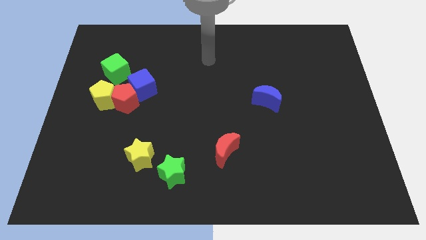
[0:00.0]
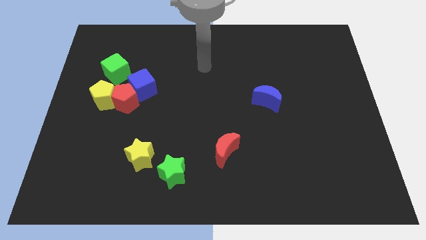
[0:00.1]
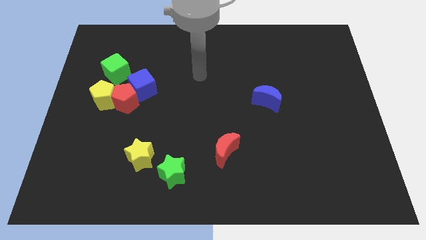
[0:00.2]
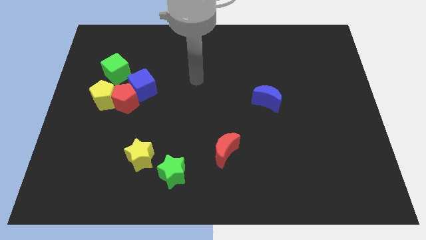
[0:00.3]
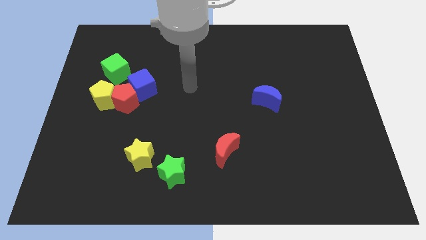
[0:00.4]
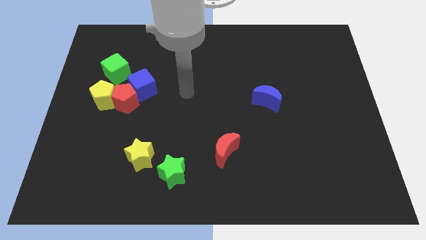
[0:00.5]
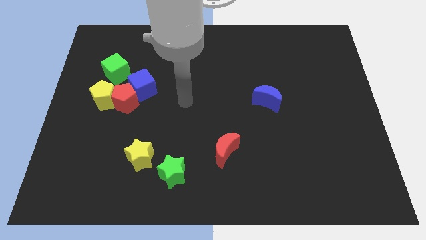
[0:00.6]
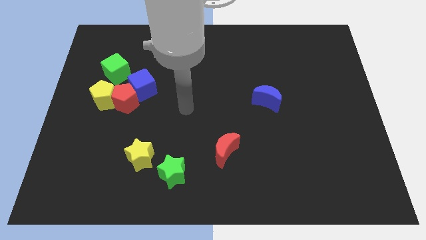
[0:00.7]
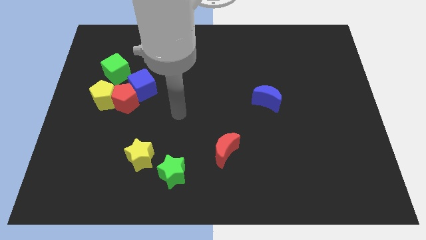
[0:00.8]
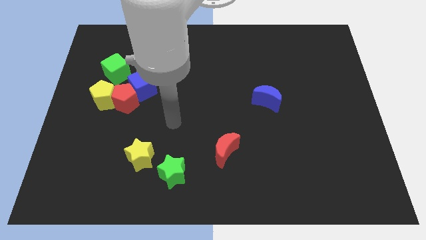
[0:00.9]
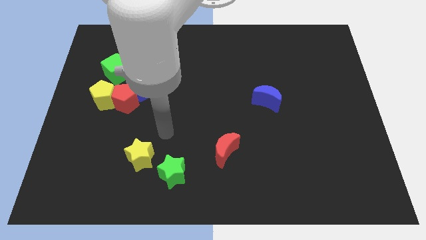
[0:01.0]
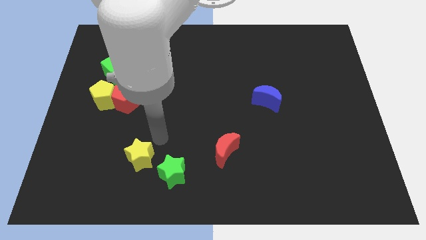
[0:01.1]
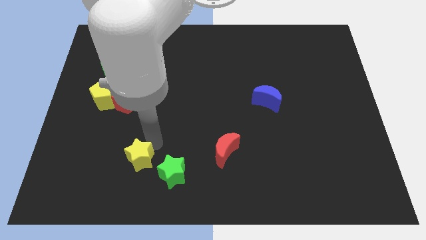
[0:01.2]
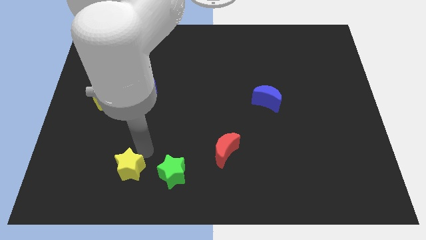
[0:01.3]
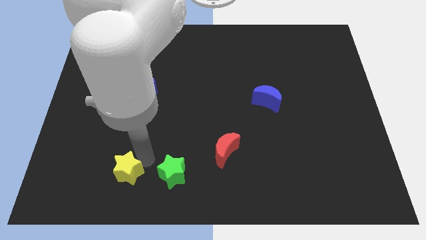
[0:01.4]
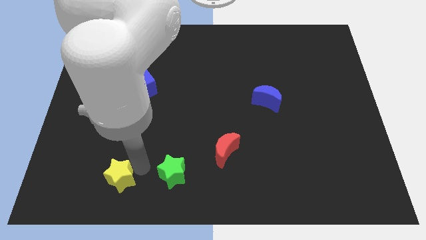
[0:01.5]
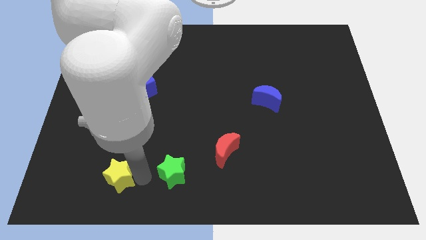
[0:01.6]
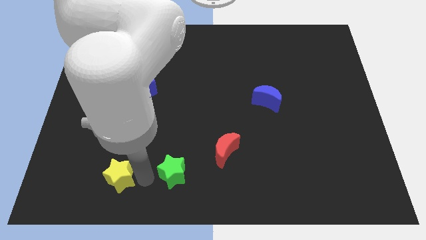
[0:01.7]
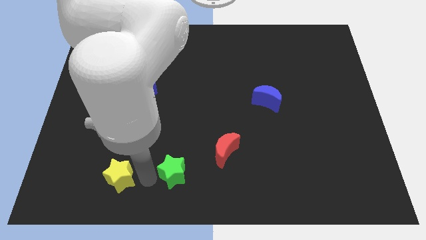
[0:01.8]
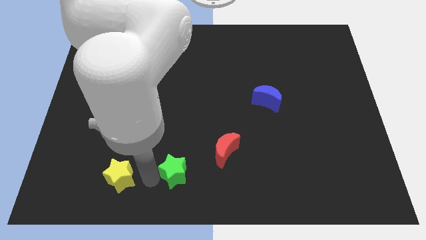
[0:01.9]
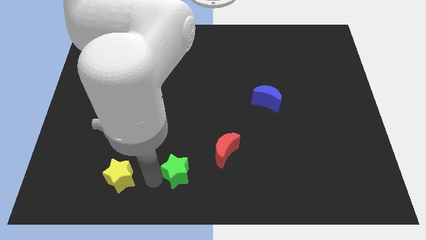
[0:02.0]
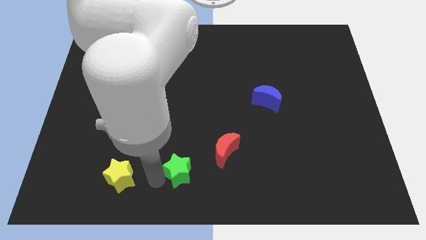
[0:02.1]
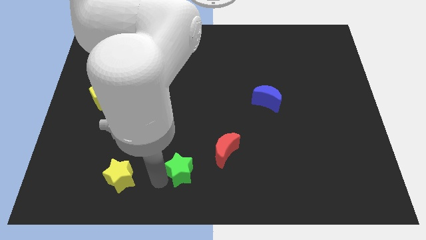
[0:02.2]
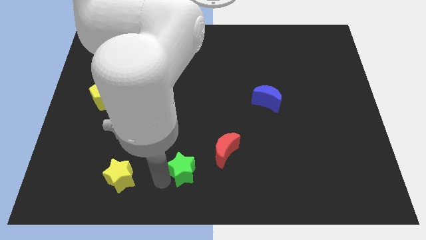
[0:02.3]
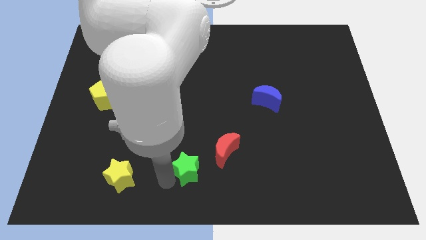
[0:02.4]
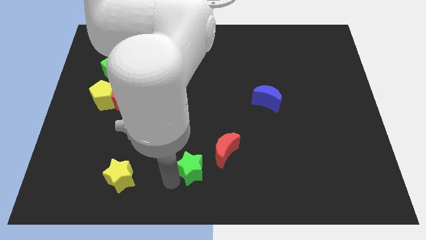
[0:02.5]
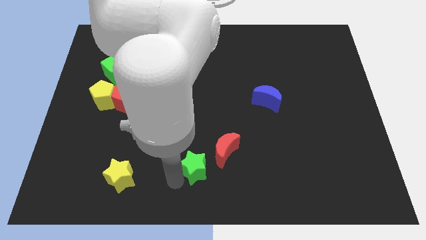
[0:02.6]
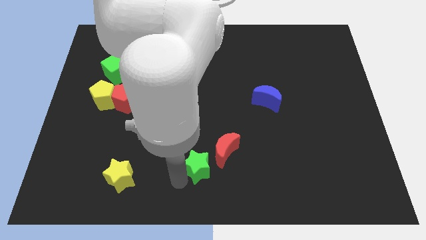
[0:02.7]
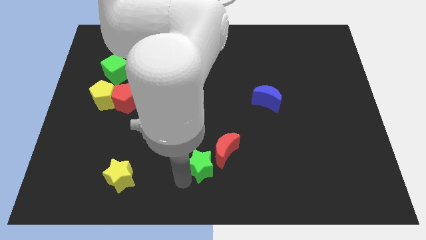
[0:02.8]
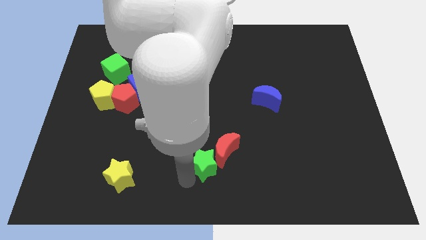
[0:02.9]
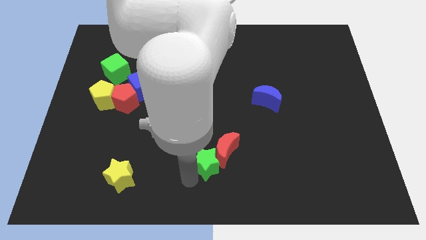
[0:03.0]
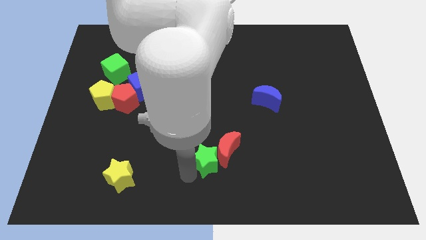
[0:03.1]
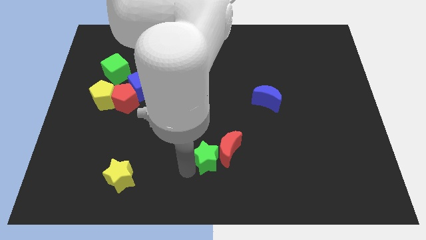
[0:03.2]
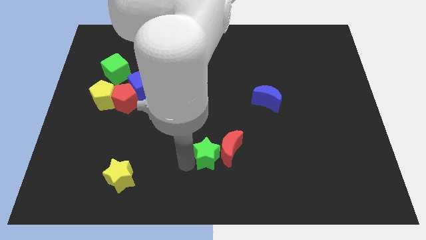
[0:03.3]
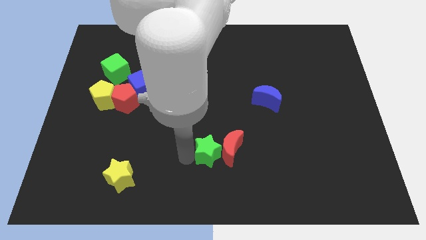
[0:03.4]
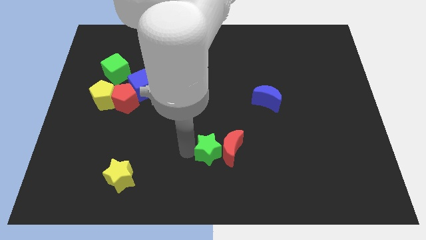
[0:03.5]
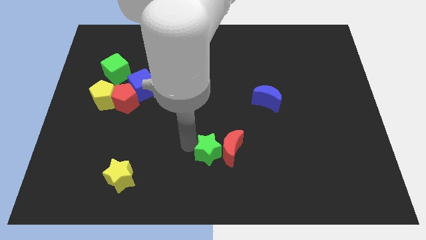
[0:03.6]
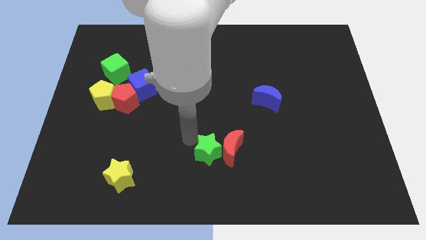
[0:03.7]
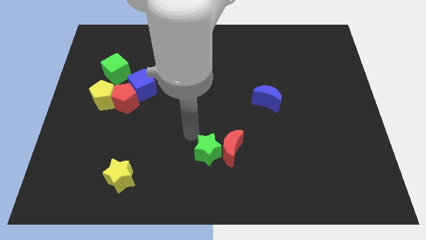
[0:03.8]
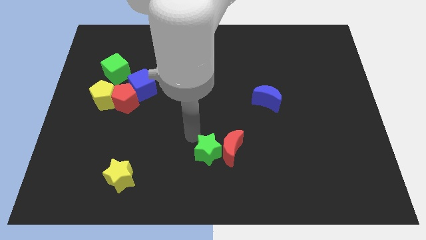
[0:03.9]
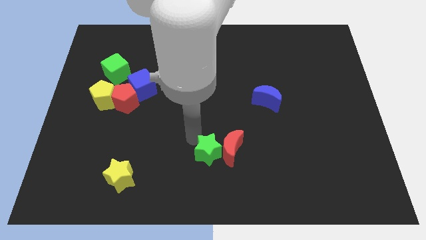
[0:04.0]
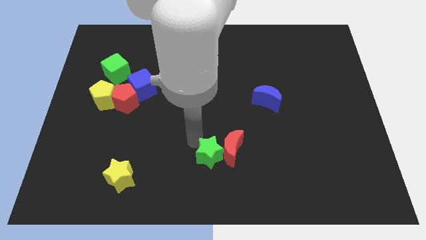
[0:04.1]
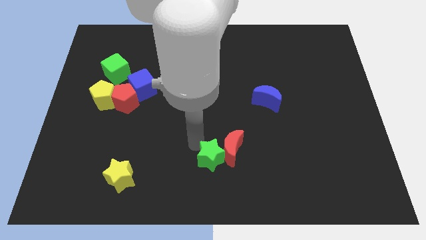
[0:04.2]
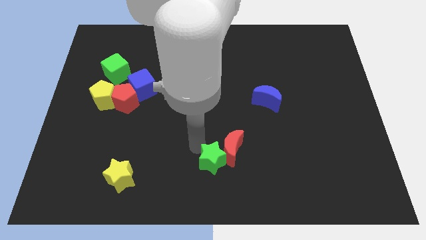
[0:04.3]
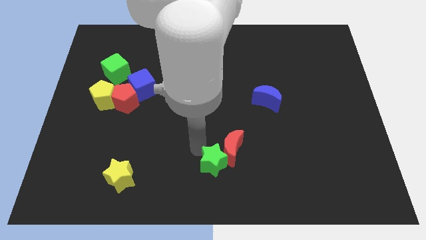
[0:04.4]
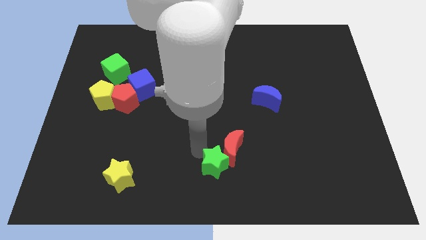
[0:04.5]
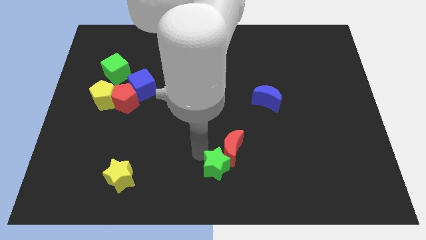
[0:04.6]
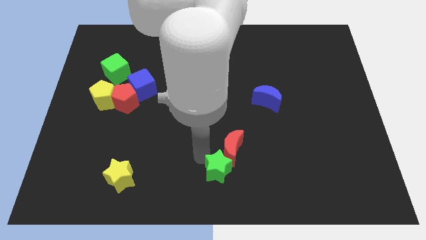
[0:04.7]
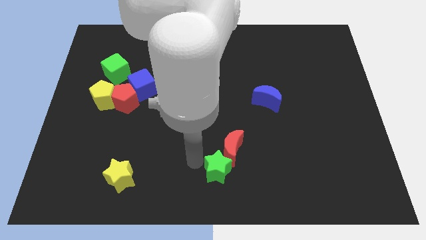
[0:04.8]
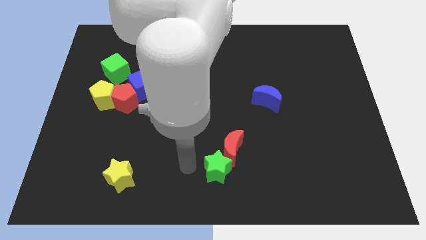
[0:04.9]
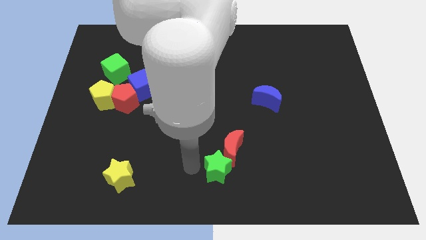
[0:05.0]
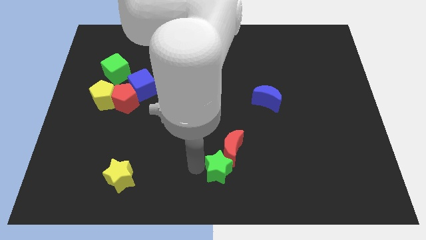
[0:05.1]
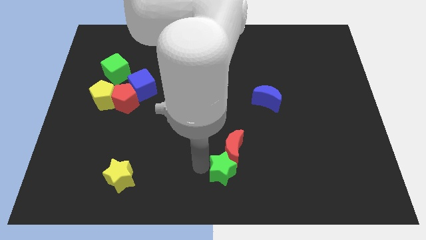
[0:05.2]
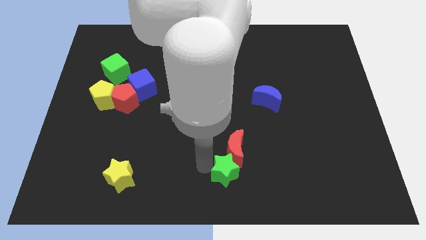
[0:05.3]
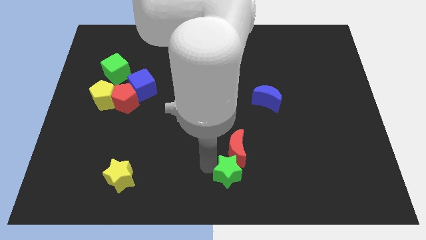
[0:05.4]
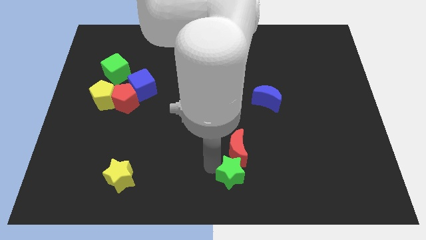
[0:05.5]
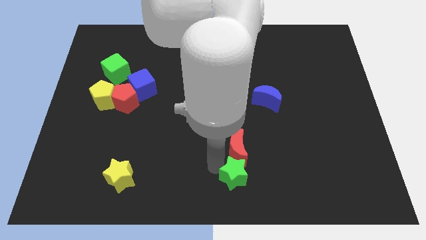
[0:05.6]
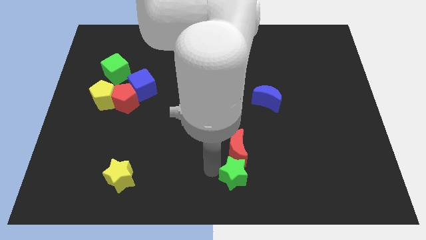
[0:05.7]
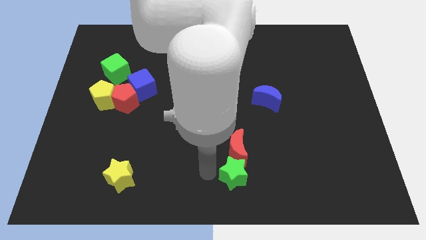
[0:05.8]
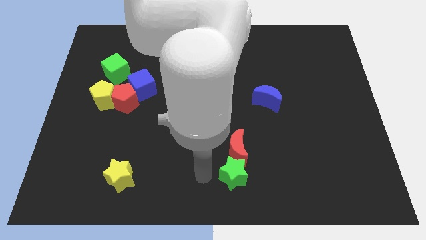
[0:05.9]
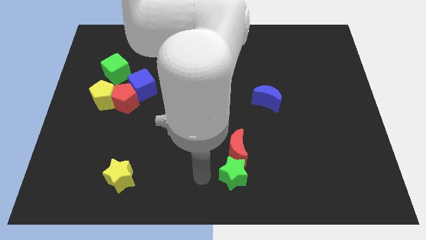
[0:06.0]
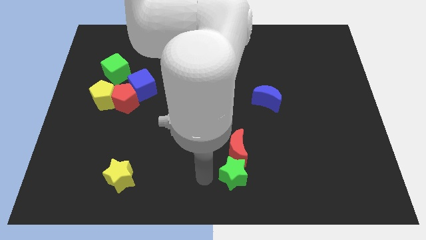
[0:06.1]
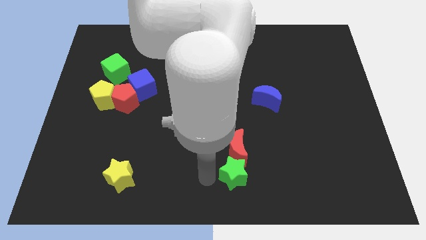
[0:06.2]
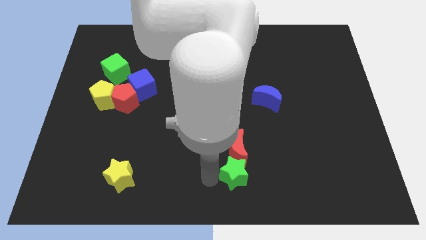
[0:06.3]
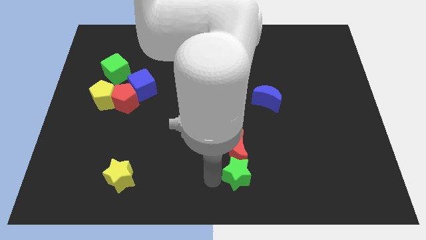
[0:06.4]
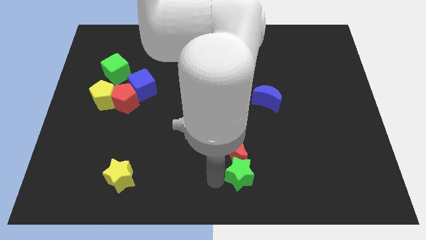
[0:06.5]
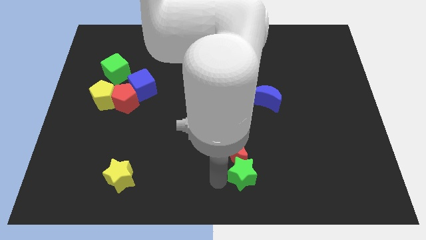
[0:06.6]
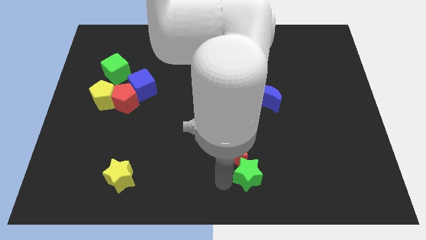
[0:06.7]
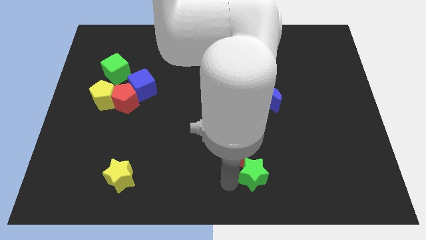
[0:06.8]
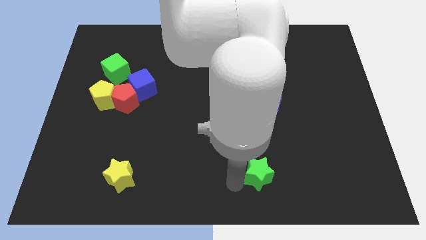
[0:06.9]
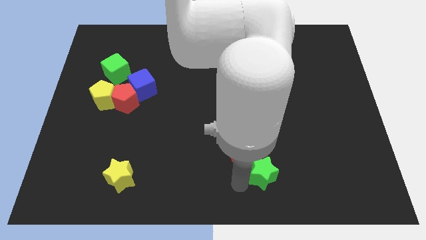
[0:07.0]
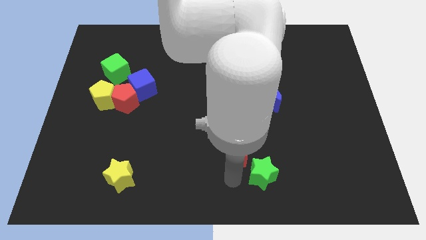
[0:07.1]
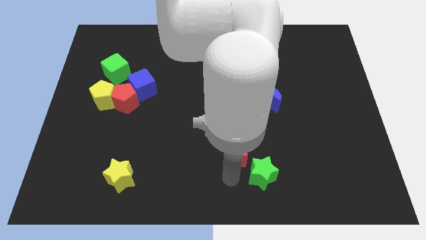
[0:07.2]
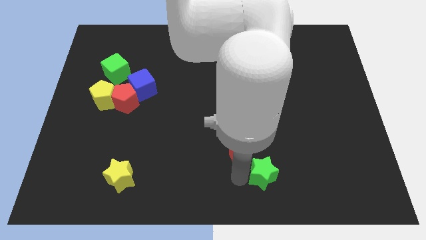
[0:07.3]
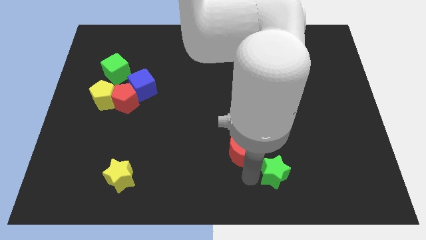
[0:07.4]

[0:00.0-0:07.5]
move the green star right

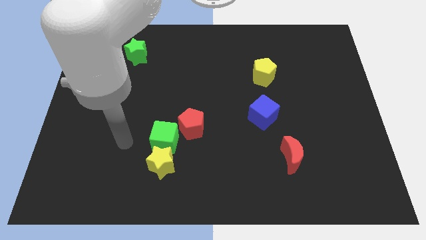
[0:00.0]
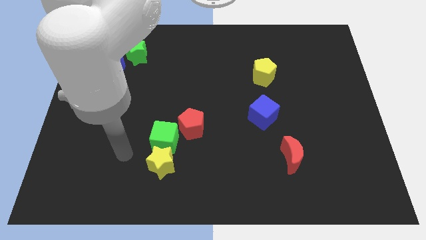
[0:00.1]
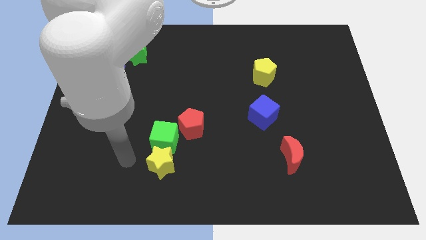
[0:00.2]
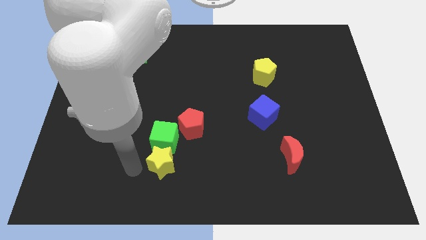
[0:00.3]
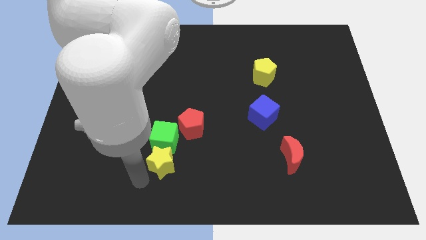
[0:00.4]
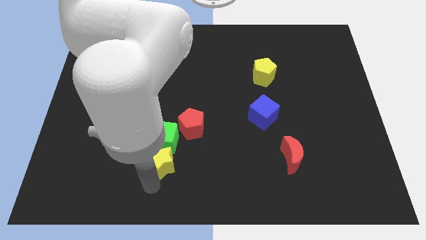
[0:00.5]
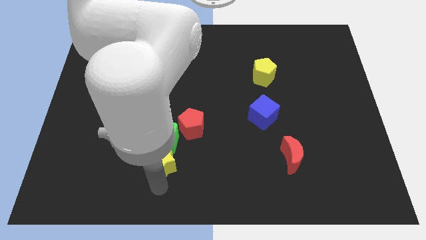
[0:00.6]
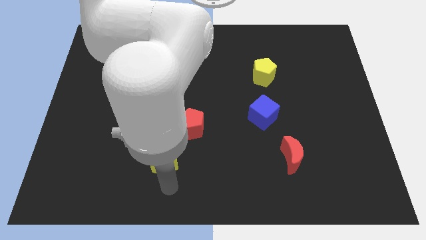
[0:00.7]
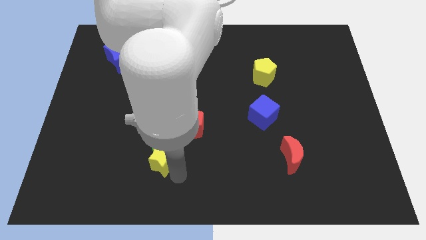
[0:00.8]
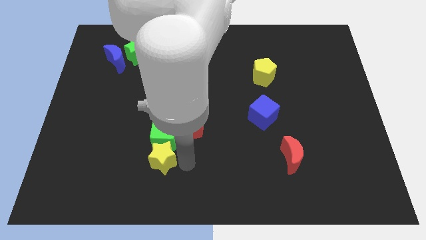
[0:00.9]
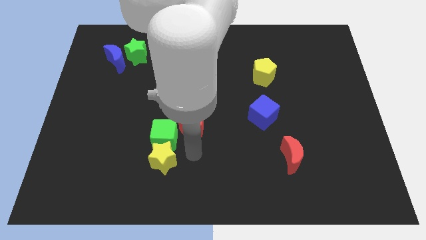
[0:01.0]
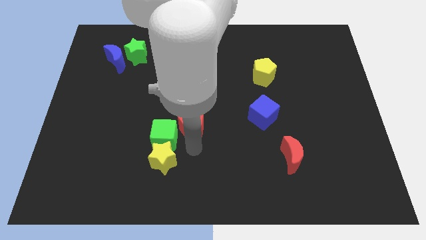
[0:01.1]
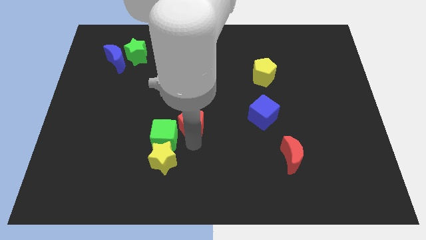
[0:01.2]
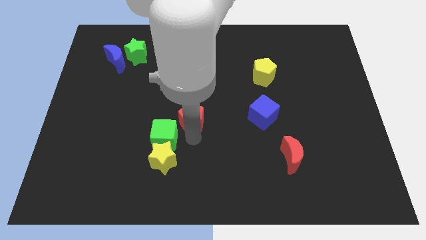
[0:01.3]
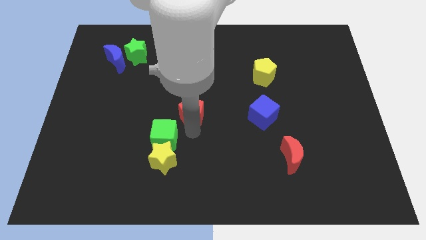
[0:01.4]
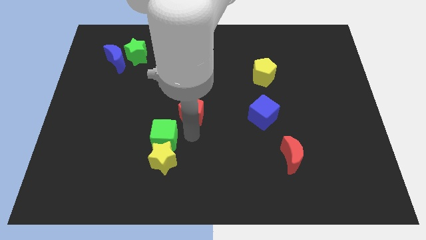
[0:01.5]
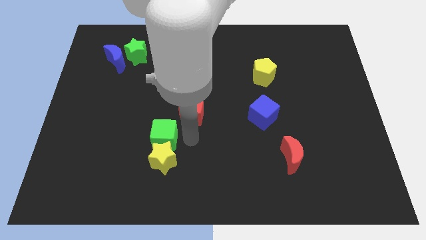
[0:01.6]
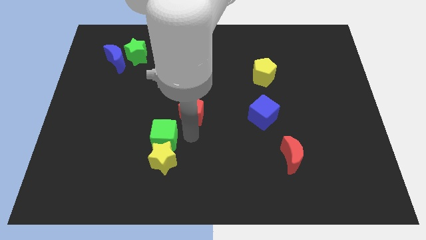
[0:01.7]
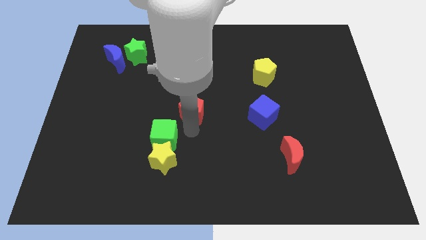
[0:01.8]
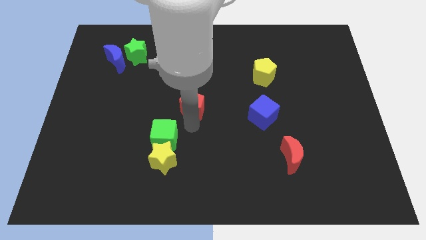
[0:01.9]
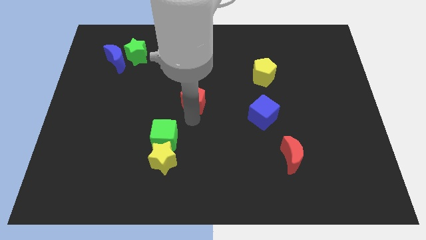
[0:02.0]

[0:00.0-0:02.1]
push the red pentagon somewhat up
